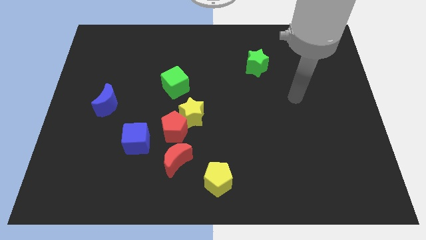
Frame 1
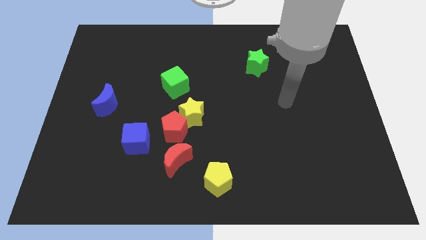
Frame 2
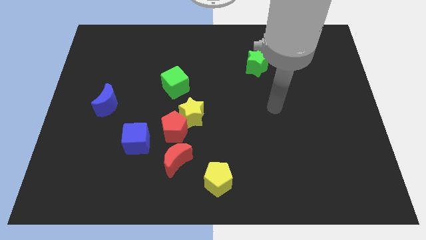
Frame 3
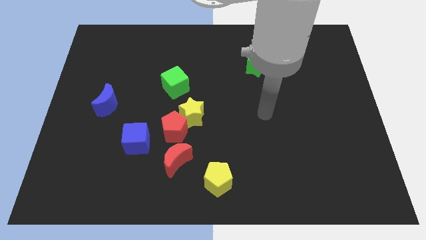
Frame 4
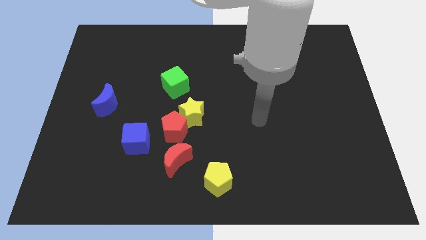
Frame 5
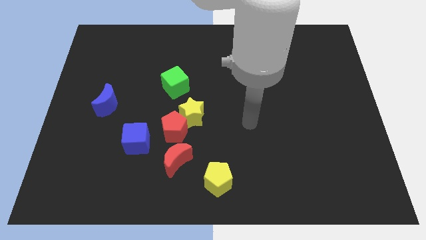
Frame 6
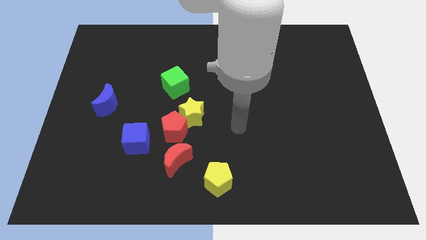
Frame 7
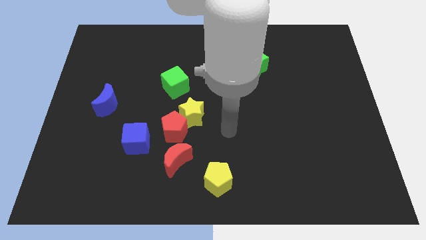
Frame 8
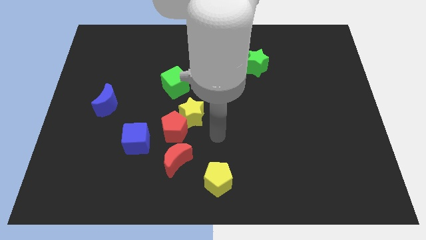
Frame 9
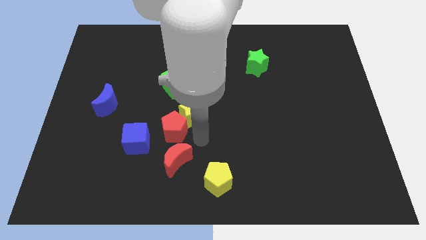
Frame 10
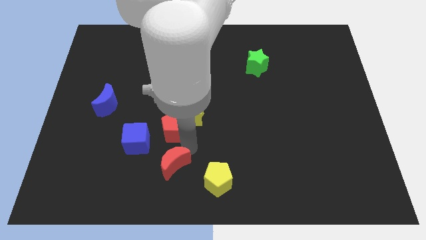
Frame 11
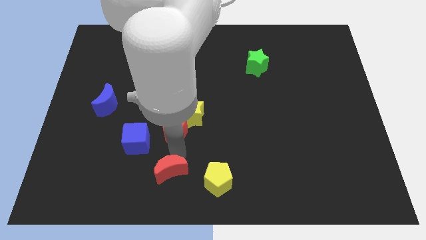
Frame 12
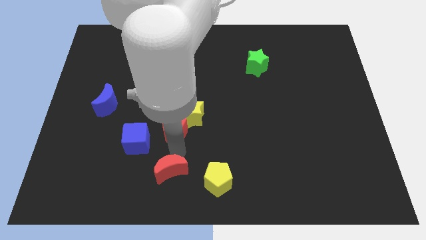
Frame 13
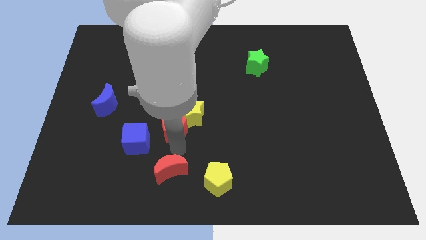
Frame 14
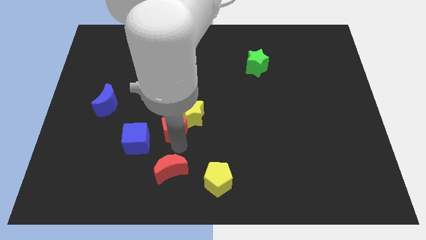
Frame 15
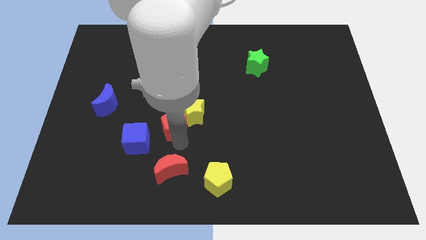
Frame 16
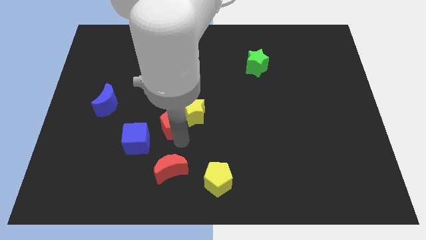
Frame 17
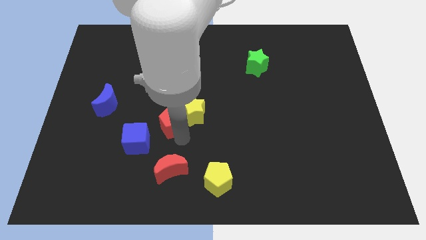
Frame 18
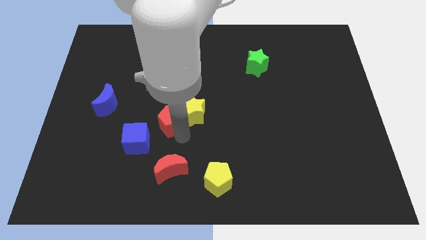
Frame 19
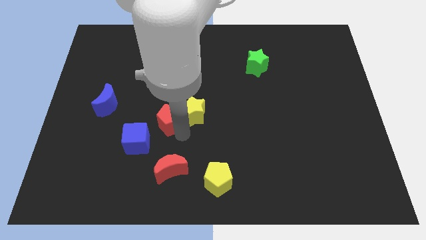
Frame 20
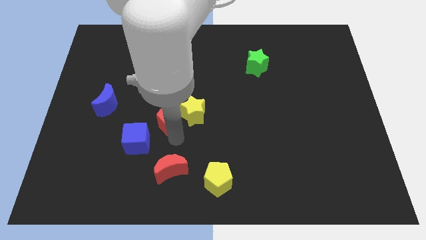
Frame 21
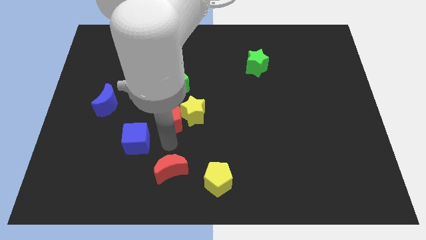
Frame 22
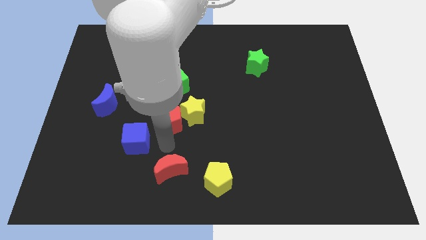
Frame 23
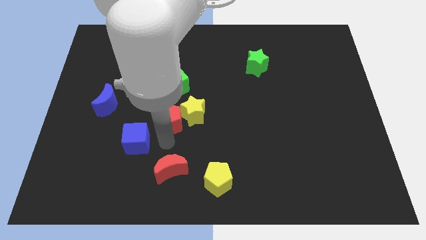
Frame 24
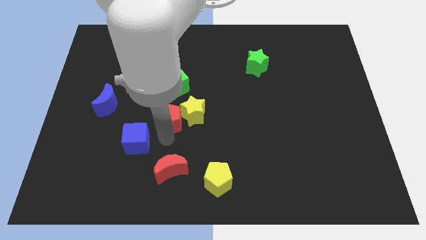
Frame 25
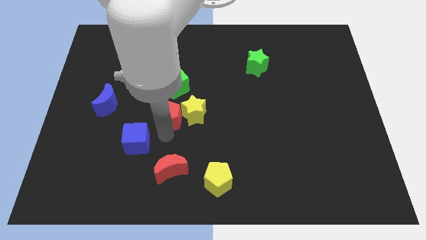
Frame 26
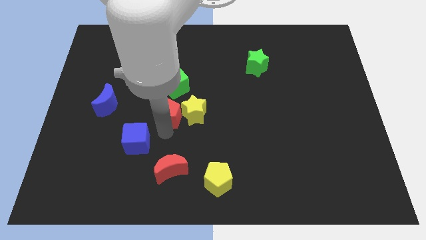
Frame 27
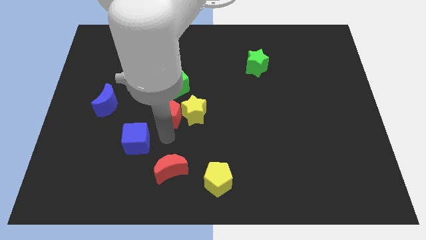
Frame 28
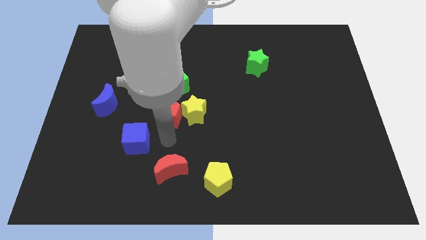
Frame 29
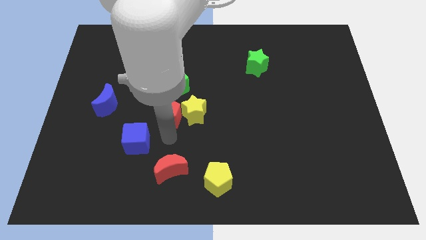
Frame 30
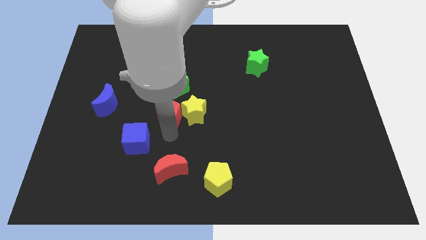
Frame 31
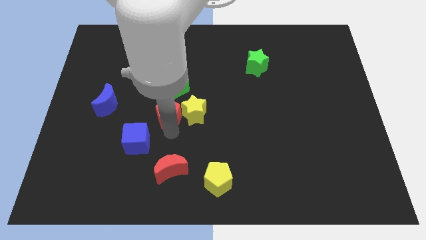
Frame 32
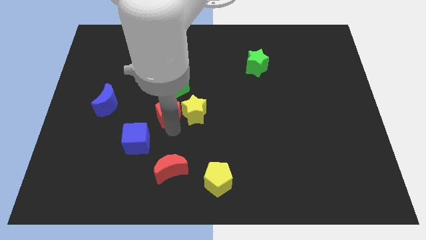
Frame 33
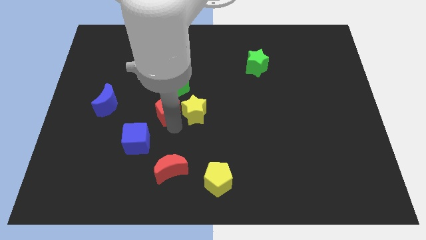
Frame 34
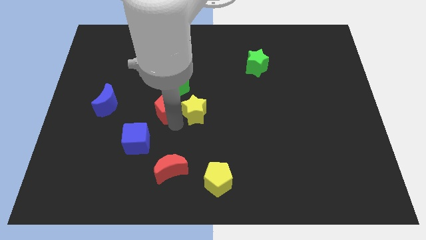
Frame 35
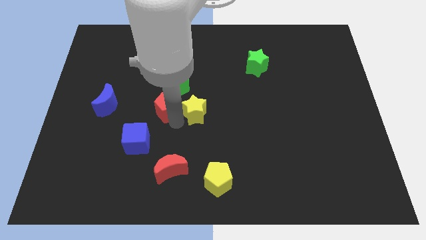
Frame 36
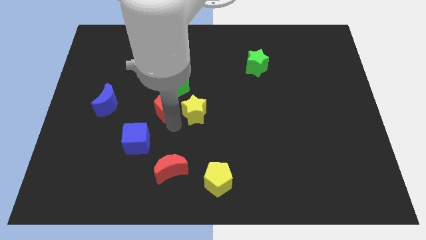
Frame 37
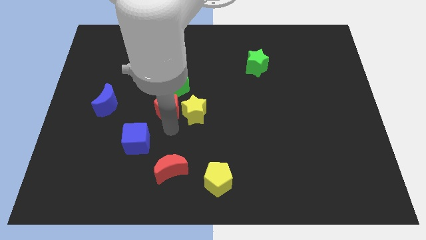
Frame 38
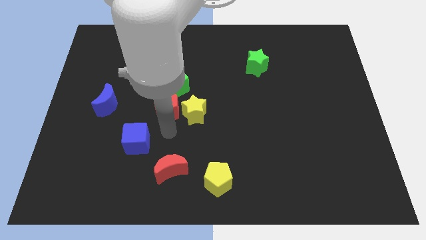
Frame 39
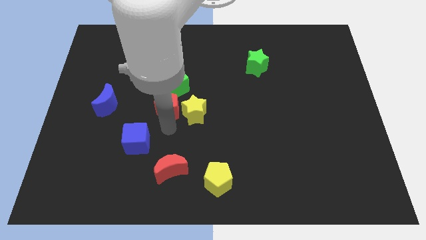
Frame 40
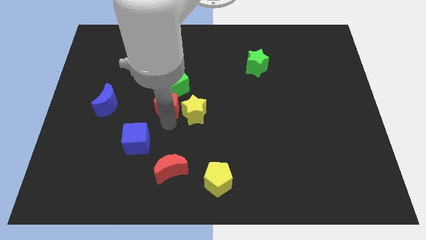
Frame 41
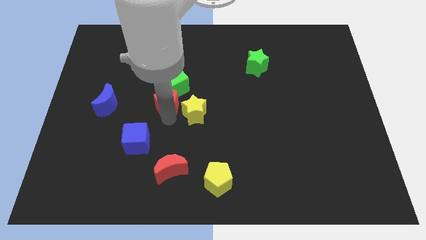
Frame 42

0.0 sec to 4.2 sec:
pull the red pentagon apart from the clump

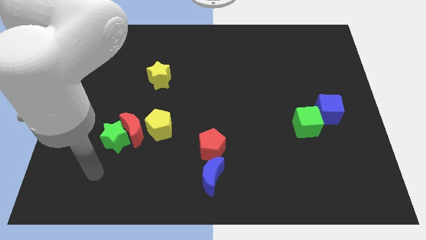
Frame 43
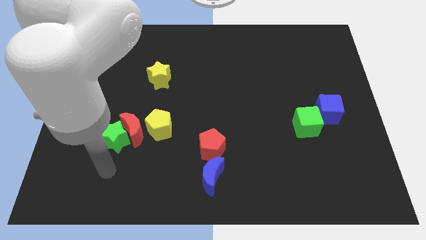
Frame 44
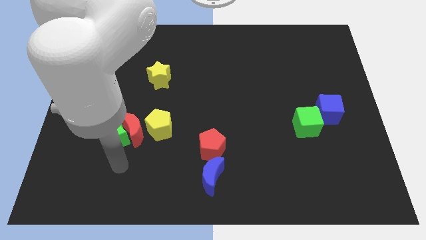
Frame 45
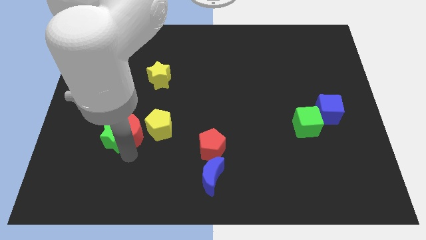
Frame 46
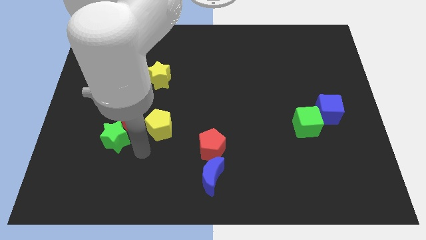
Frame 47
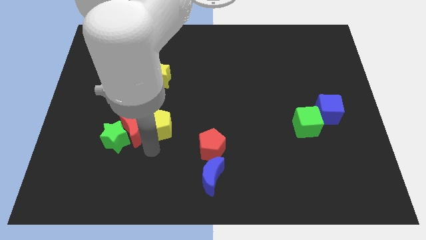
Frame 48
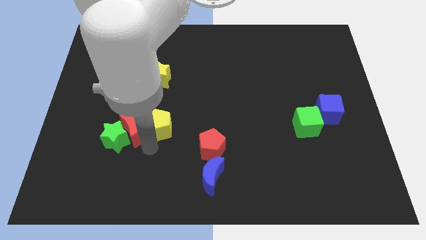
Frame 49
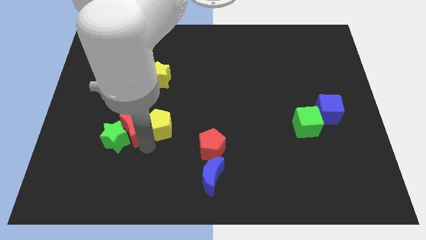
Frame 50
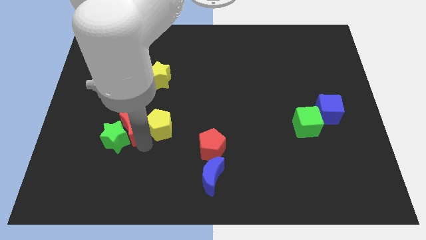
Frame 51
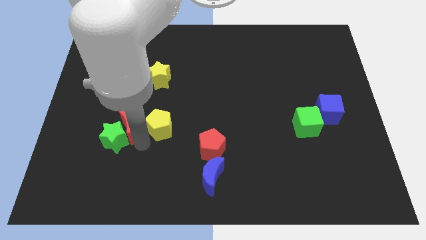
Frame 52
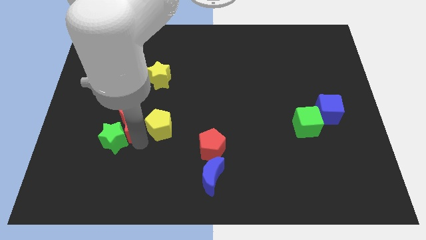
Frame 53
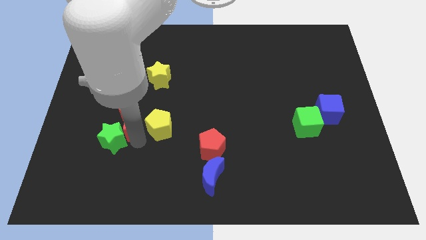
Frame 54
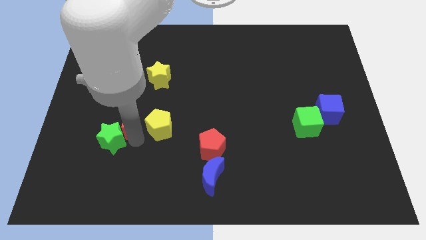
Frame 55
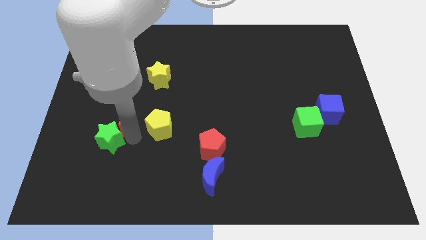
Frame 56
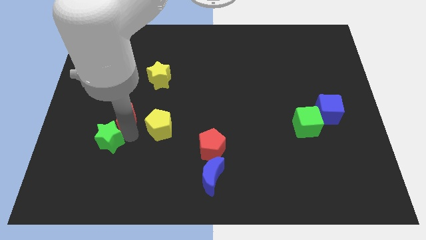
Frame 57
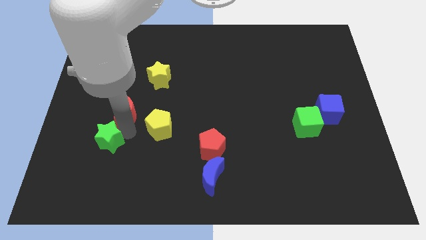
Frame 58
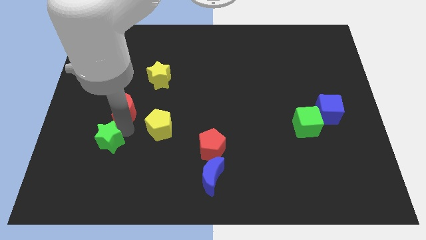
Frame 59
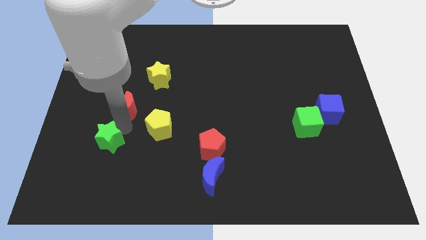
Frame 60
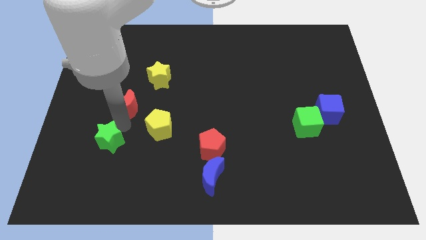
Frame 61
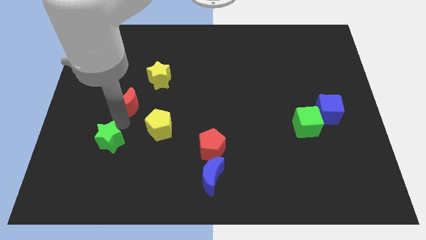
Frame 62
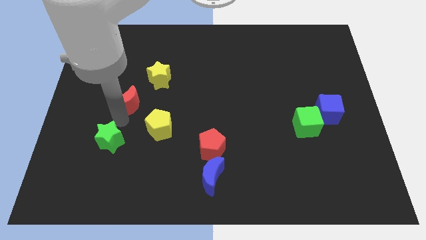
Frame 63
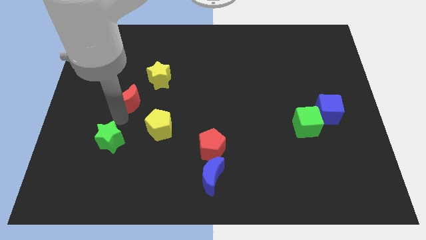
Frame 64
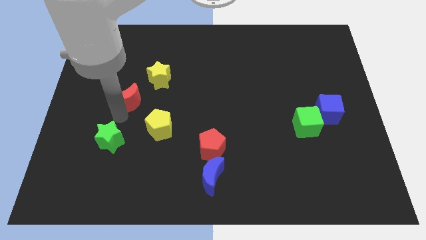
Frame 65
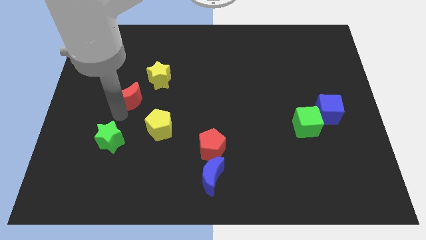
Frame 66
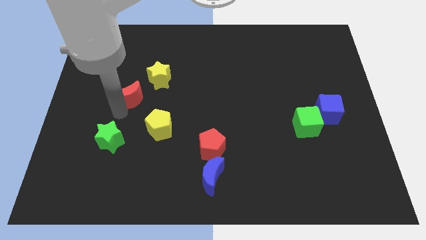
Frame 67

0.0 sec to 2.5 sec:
separate the red moon from the green star and yellow pentagon

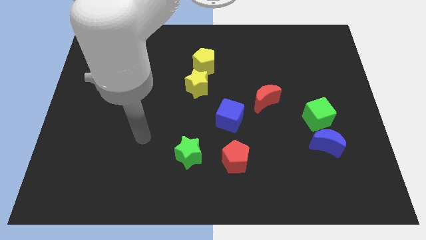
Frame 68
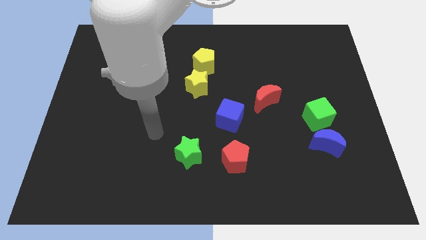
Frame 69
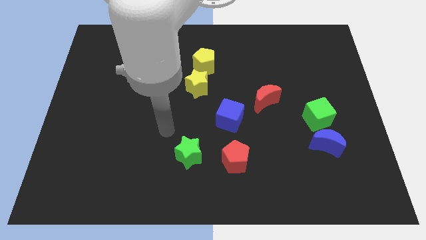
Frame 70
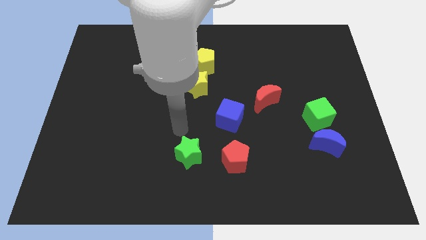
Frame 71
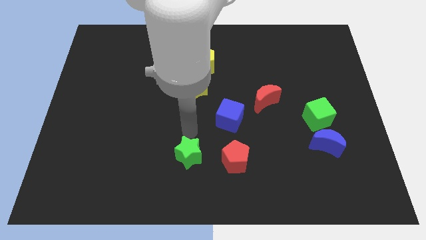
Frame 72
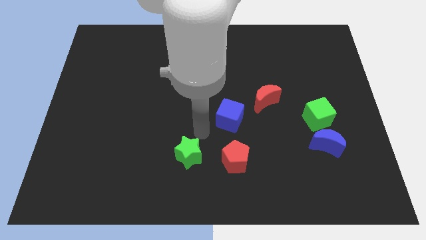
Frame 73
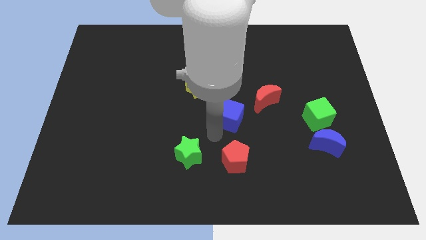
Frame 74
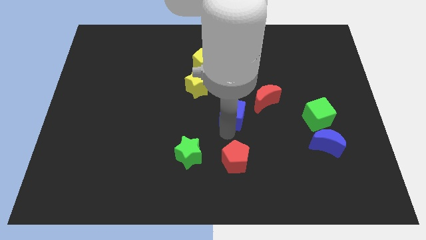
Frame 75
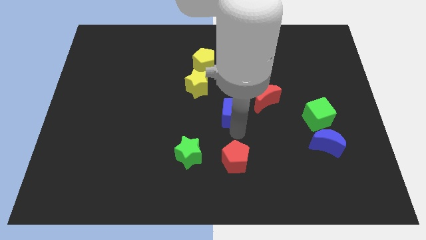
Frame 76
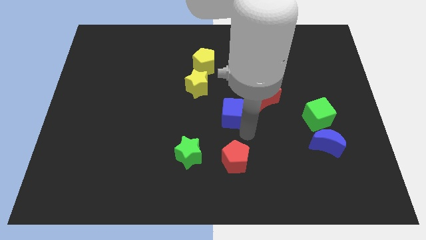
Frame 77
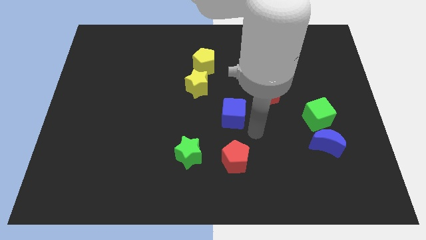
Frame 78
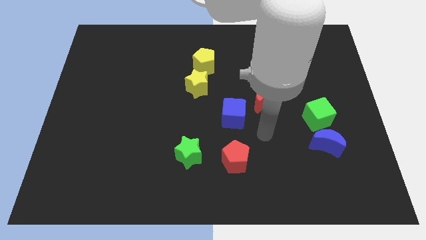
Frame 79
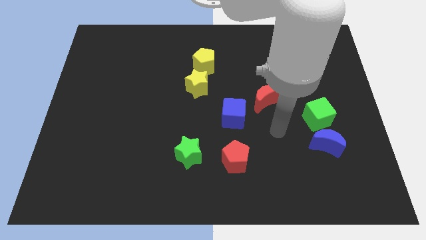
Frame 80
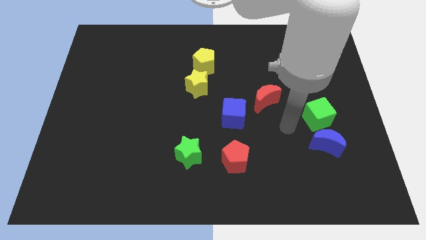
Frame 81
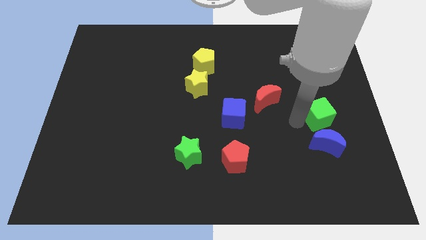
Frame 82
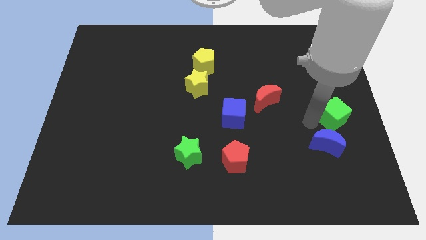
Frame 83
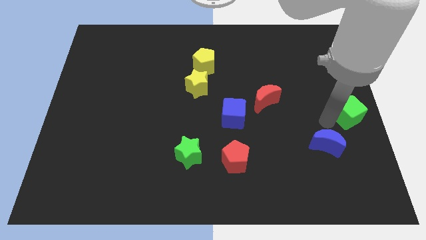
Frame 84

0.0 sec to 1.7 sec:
pull the blue moon apart from the green cube

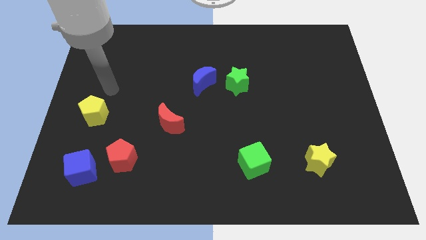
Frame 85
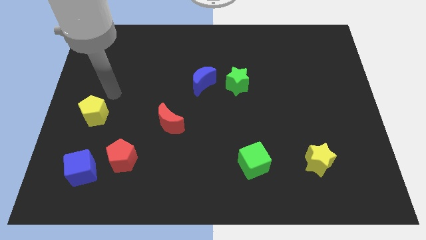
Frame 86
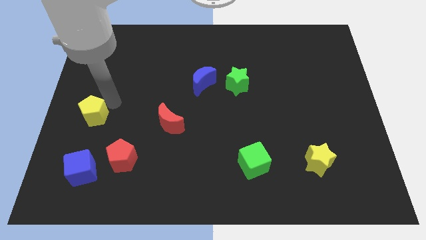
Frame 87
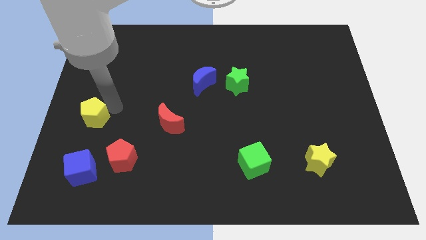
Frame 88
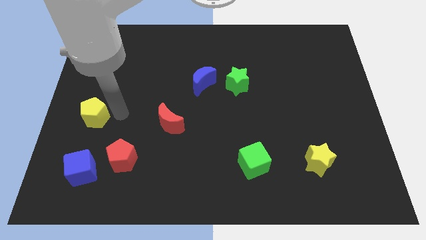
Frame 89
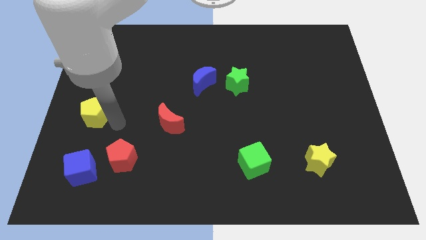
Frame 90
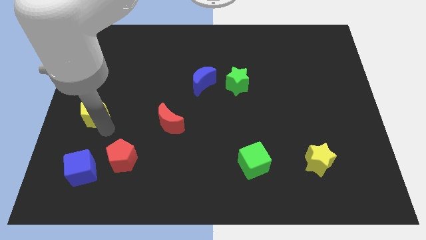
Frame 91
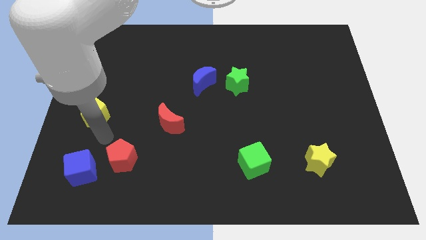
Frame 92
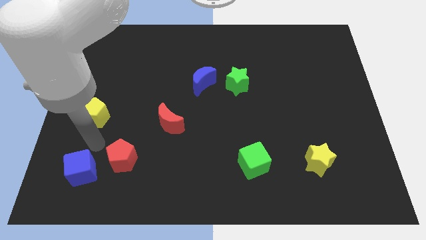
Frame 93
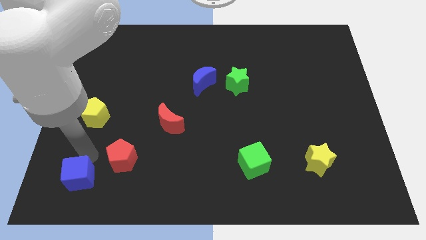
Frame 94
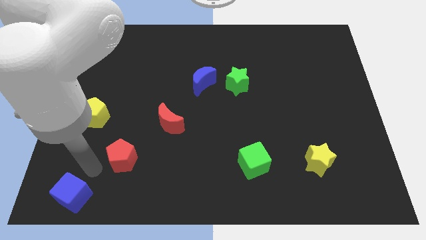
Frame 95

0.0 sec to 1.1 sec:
pull the red pentagon apart from the blue cube

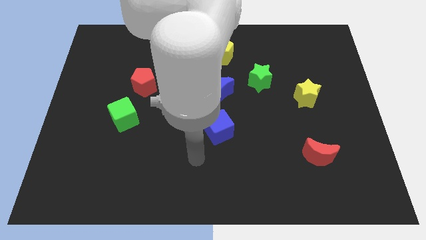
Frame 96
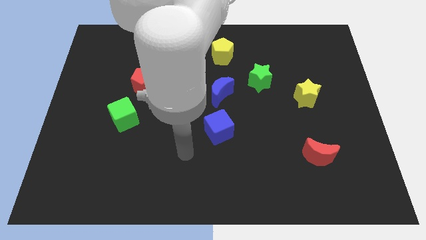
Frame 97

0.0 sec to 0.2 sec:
move the red pentagon away from the green cube
